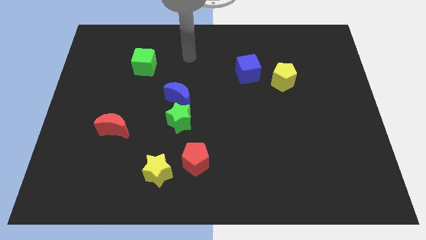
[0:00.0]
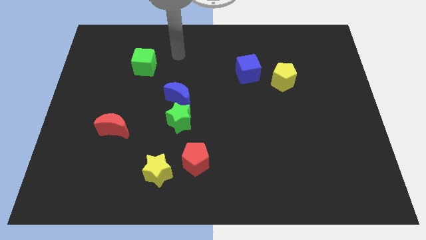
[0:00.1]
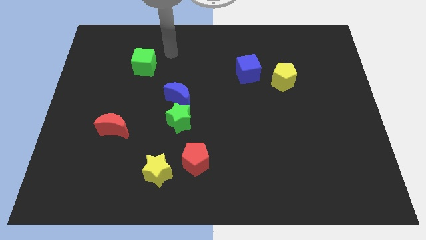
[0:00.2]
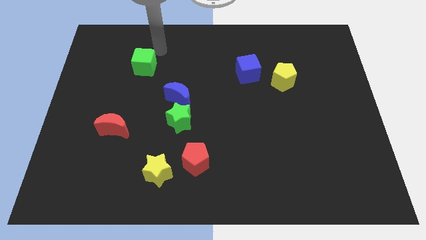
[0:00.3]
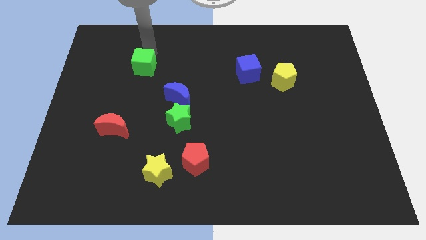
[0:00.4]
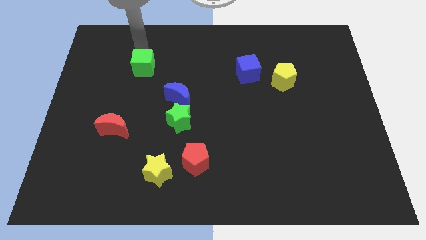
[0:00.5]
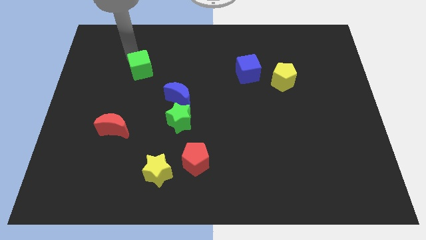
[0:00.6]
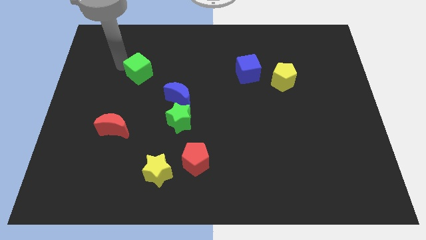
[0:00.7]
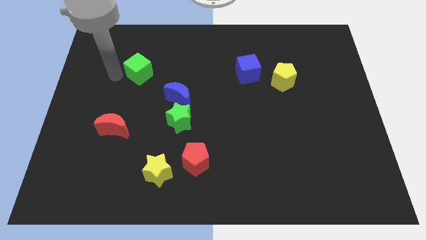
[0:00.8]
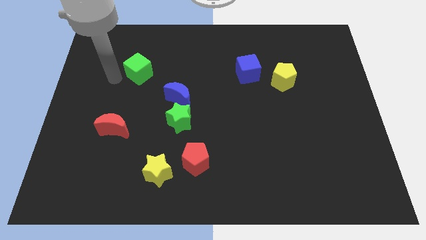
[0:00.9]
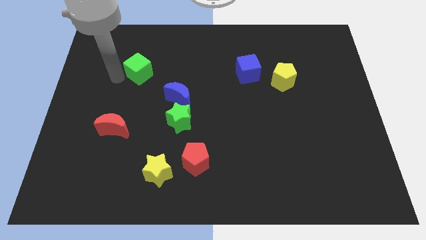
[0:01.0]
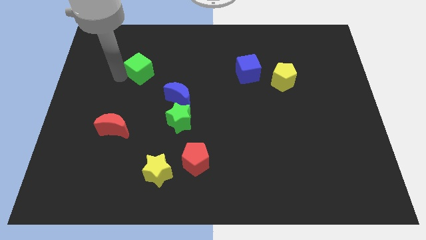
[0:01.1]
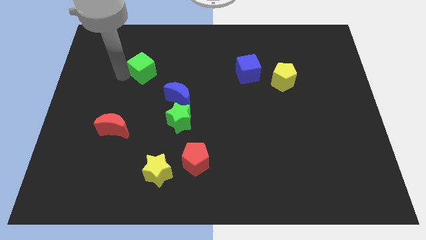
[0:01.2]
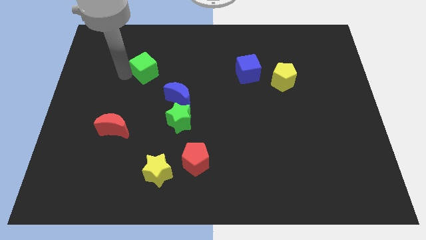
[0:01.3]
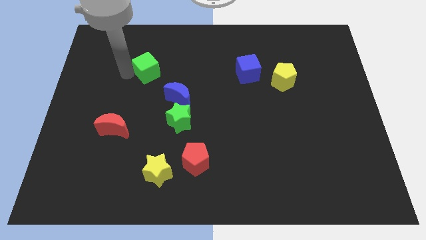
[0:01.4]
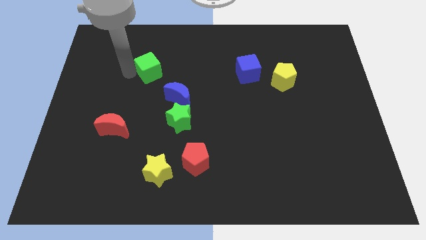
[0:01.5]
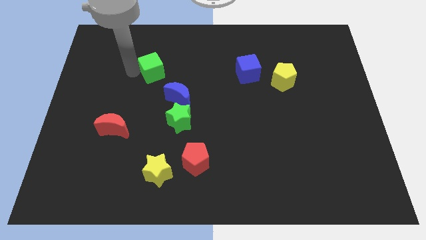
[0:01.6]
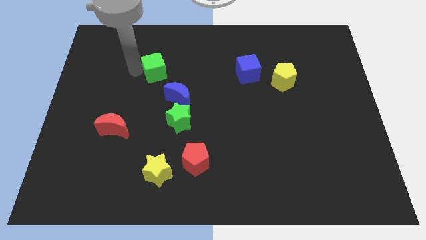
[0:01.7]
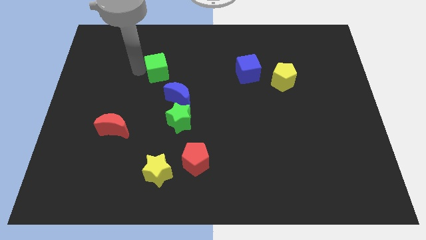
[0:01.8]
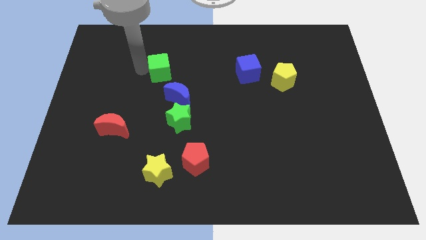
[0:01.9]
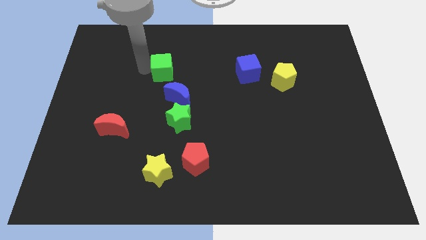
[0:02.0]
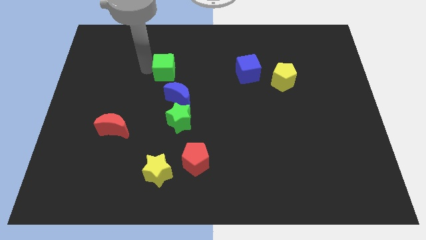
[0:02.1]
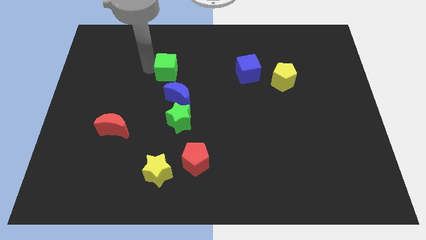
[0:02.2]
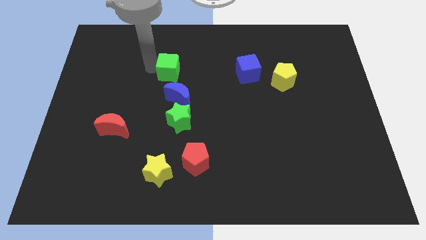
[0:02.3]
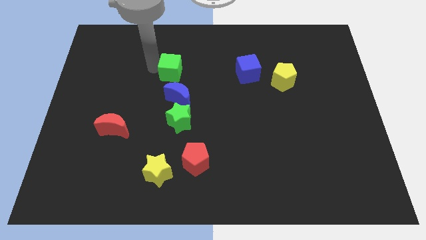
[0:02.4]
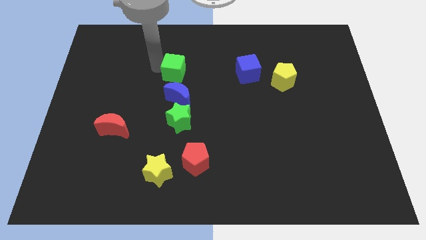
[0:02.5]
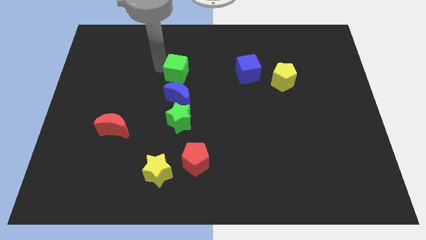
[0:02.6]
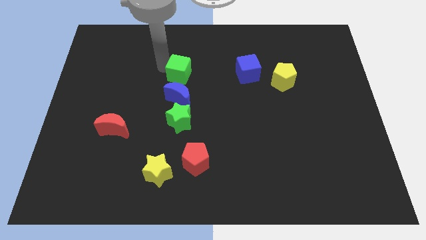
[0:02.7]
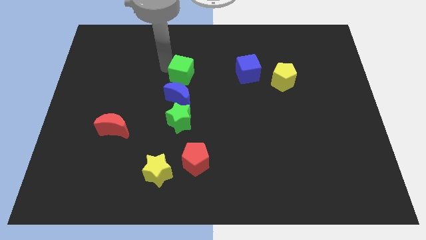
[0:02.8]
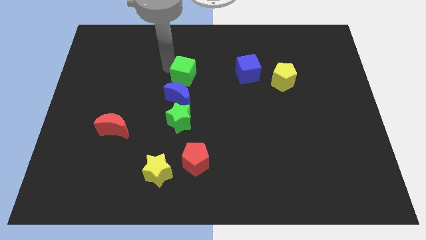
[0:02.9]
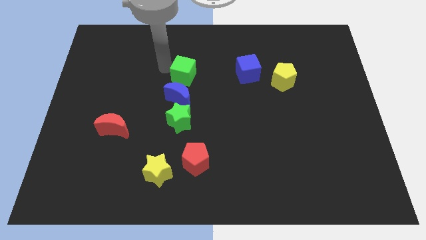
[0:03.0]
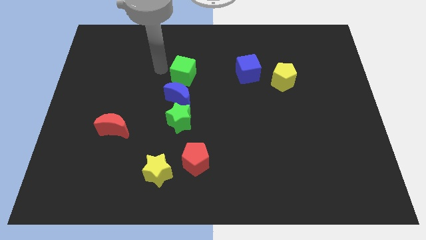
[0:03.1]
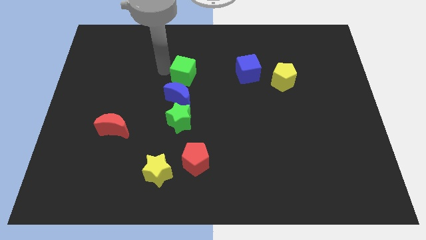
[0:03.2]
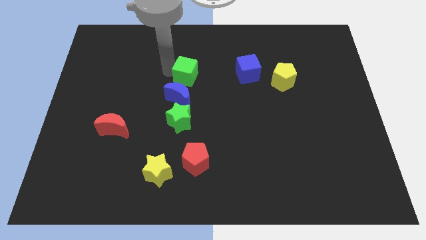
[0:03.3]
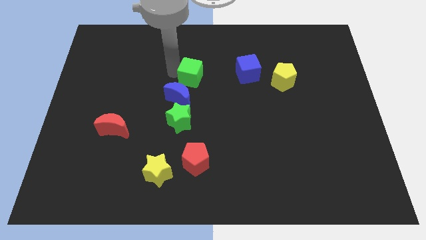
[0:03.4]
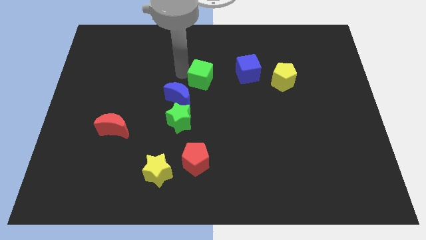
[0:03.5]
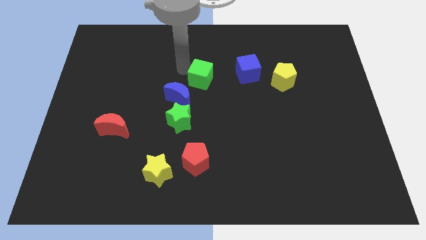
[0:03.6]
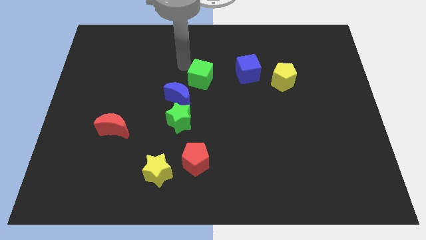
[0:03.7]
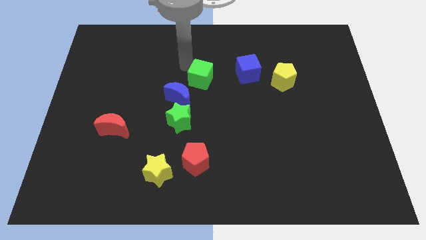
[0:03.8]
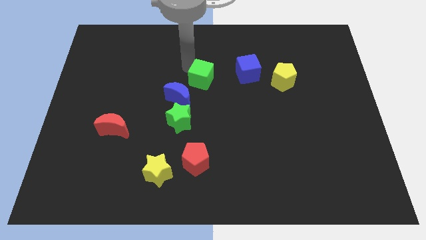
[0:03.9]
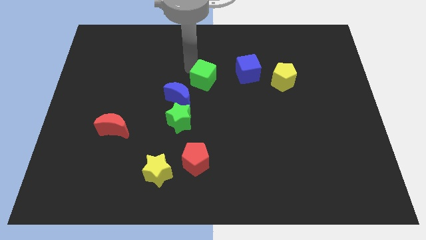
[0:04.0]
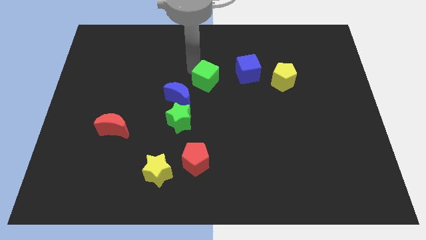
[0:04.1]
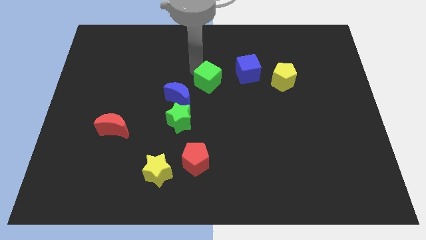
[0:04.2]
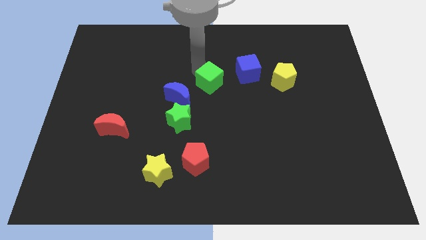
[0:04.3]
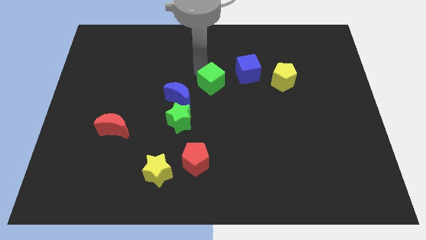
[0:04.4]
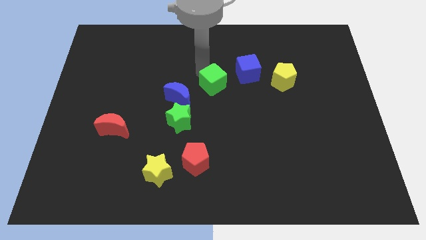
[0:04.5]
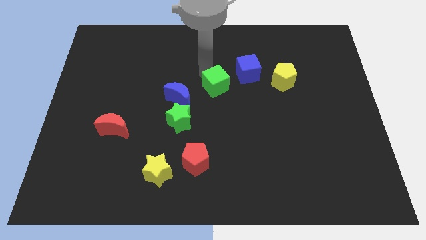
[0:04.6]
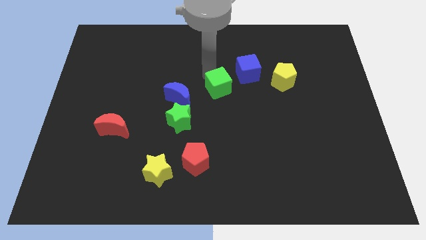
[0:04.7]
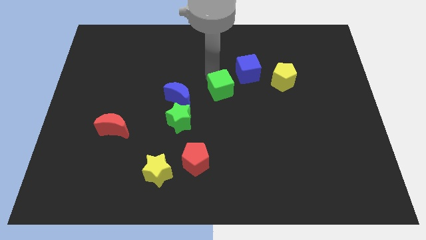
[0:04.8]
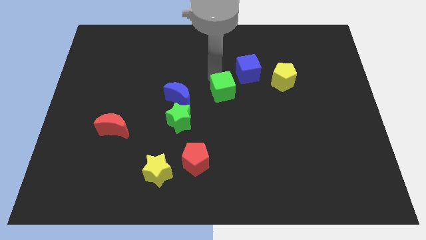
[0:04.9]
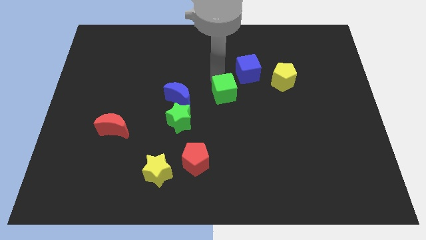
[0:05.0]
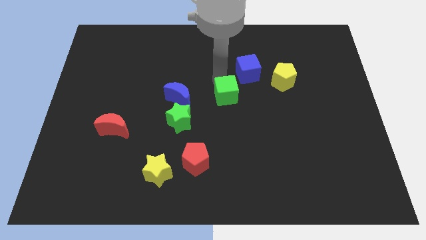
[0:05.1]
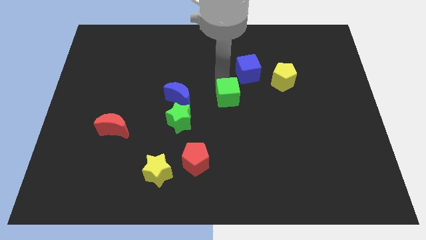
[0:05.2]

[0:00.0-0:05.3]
move the green cube down and right

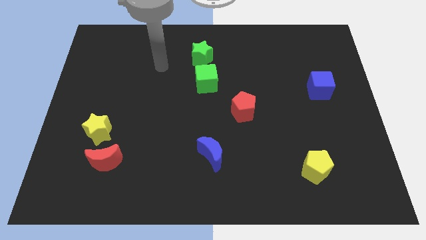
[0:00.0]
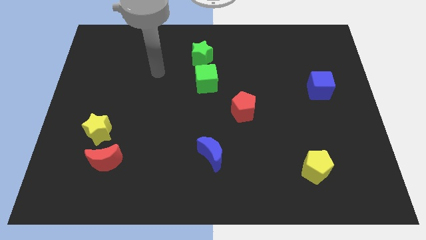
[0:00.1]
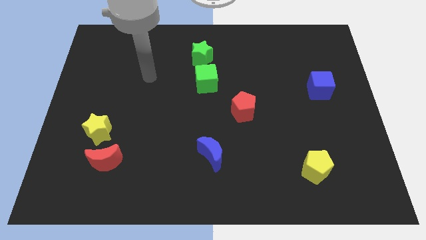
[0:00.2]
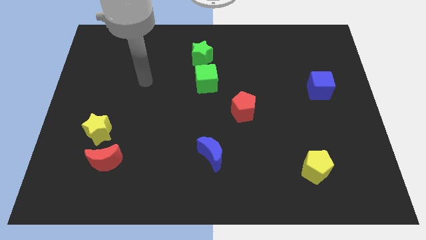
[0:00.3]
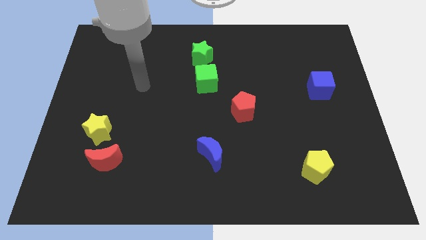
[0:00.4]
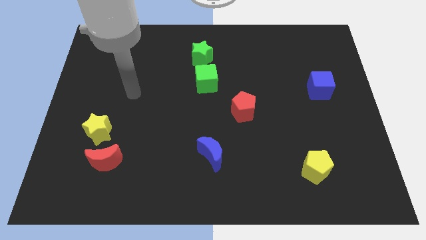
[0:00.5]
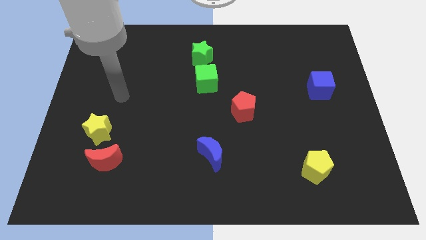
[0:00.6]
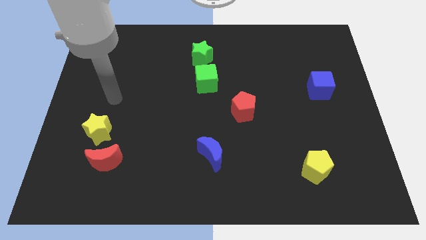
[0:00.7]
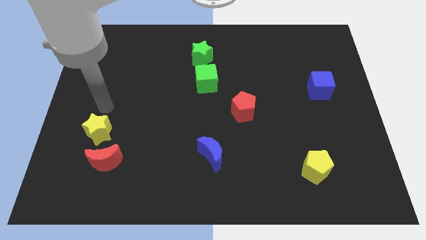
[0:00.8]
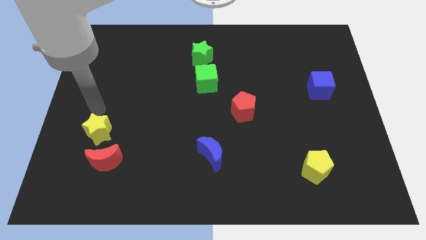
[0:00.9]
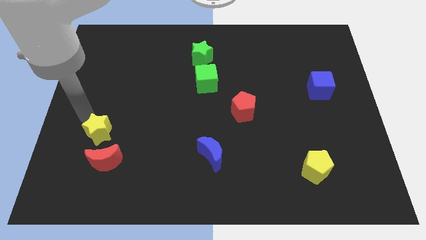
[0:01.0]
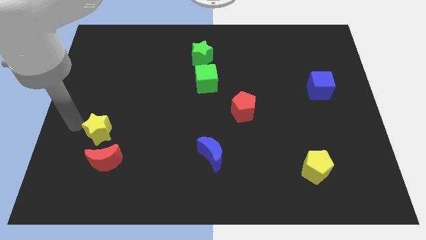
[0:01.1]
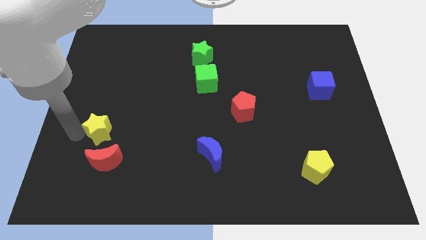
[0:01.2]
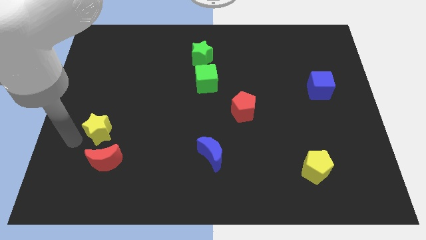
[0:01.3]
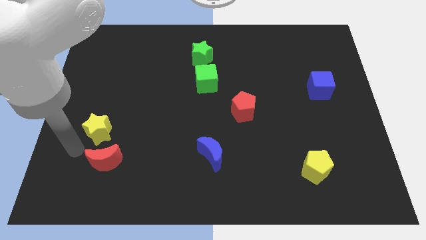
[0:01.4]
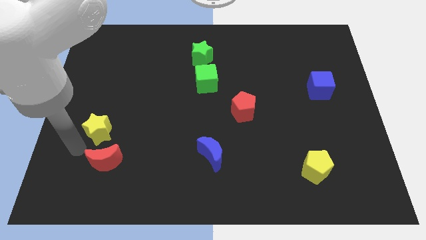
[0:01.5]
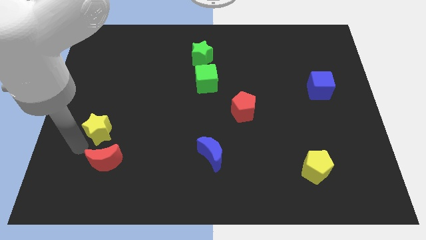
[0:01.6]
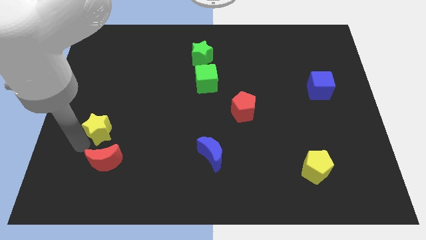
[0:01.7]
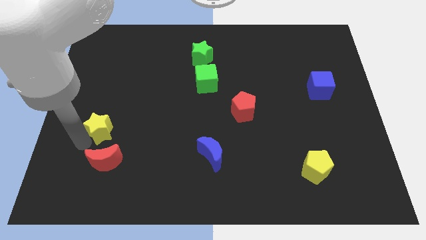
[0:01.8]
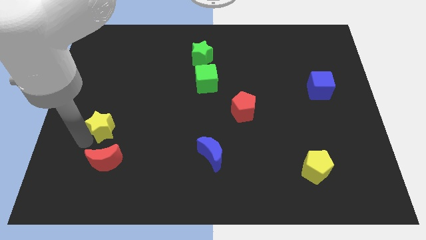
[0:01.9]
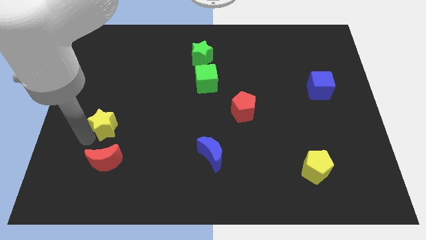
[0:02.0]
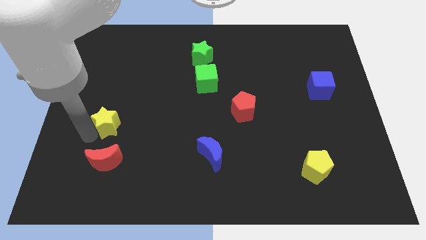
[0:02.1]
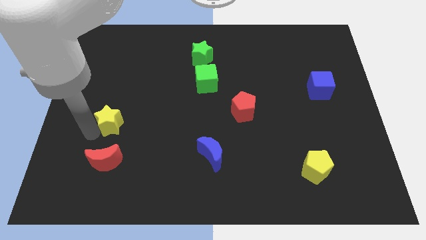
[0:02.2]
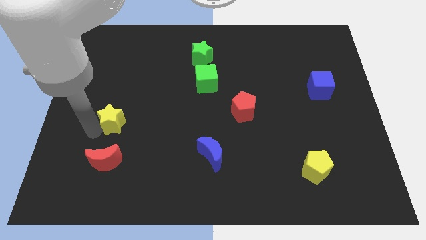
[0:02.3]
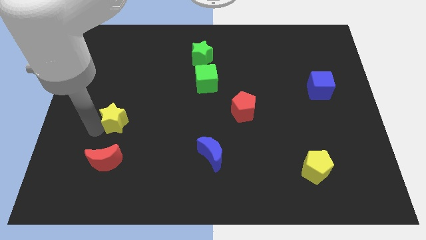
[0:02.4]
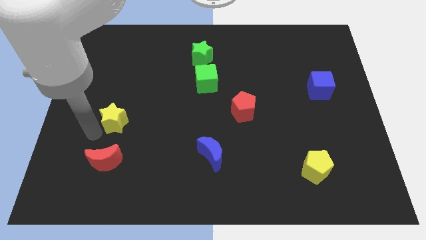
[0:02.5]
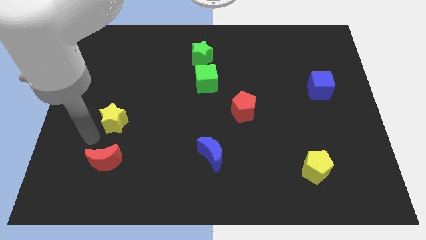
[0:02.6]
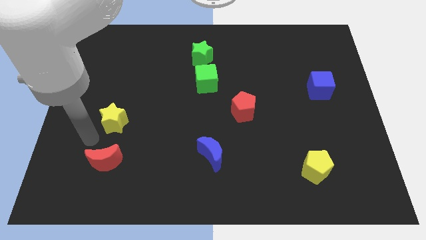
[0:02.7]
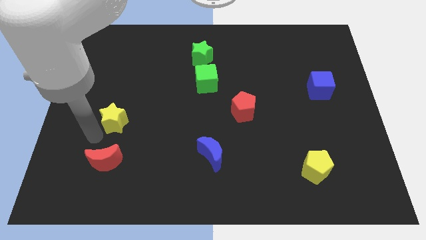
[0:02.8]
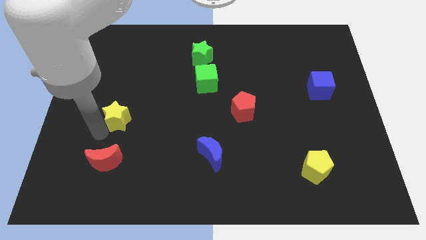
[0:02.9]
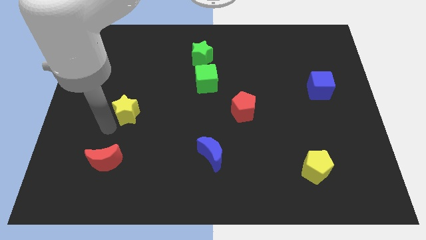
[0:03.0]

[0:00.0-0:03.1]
push the yellow star slightly diagonally upwards and right
